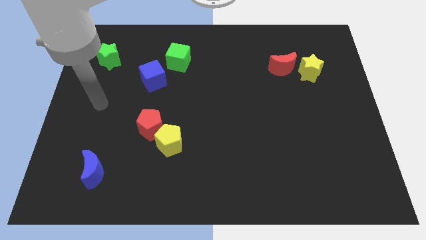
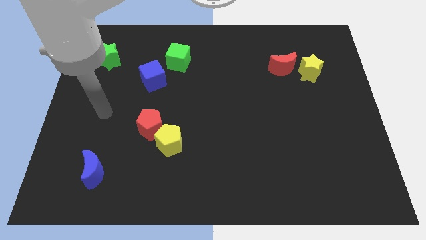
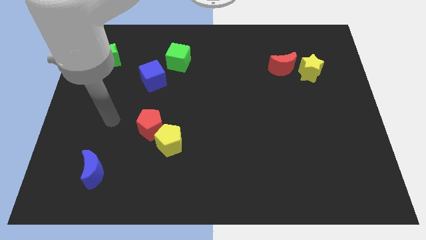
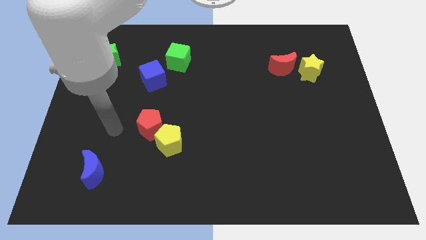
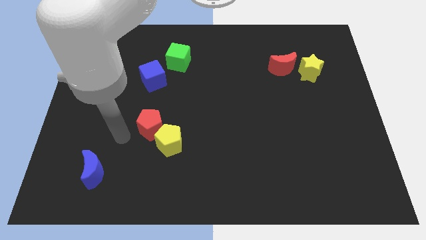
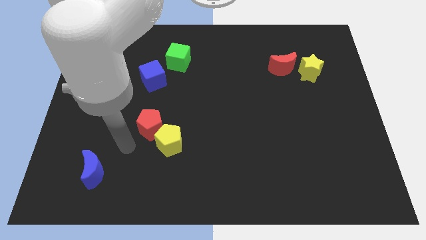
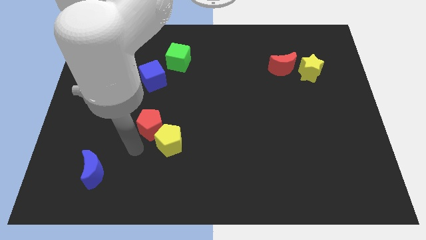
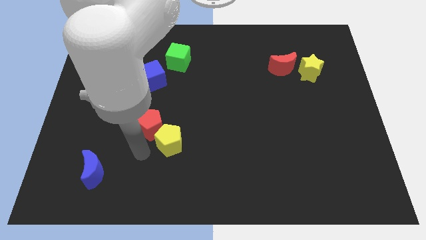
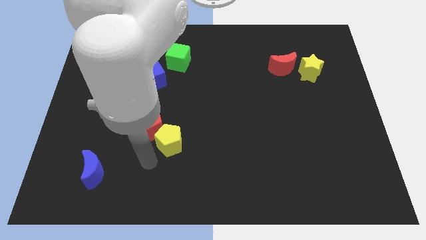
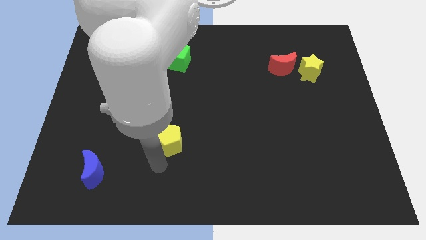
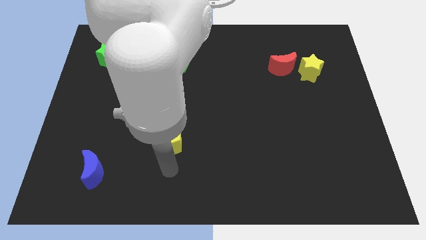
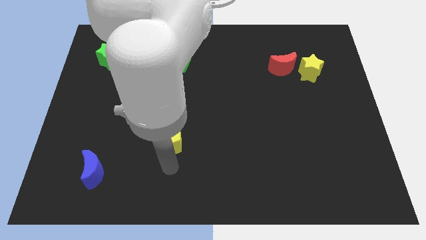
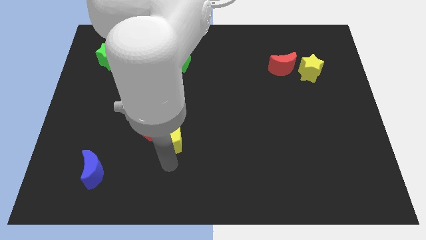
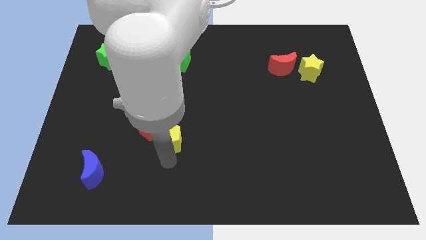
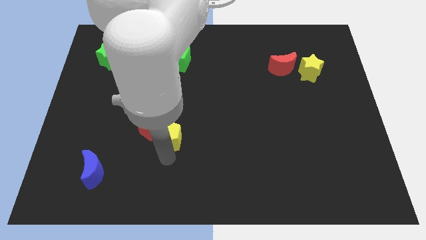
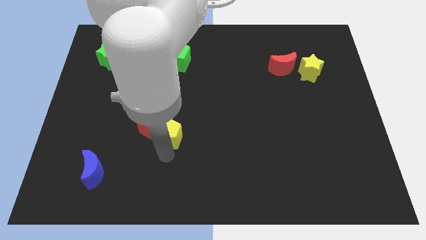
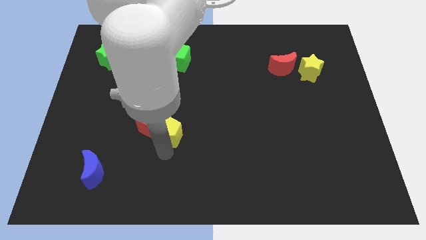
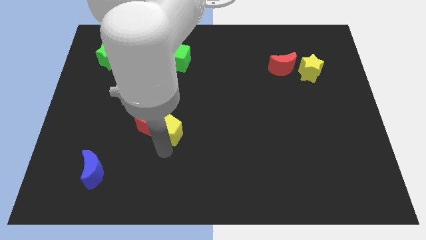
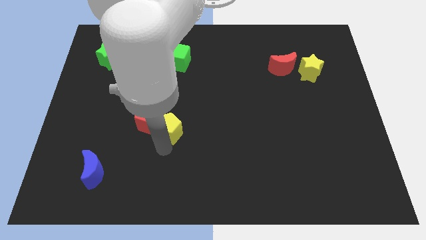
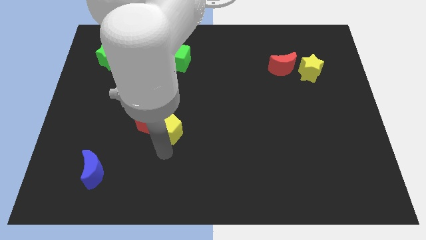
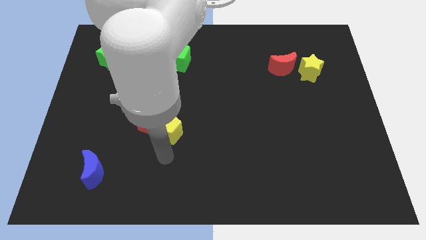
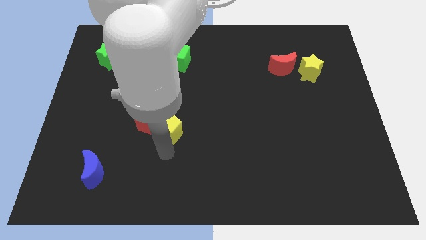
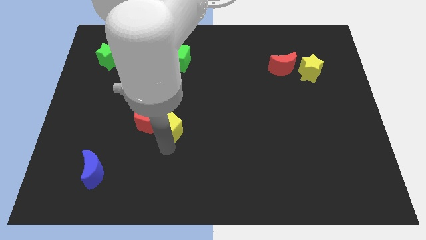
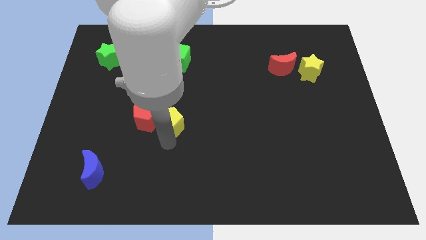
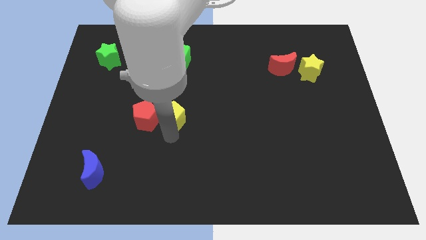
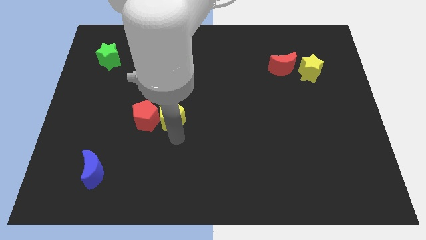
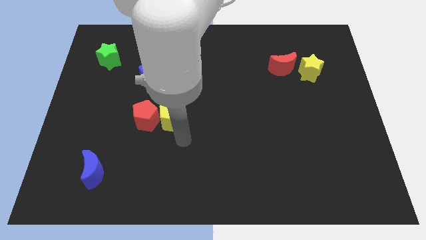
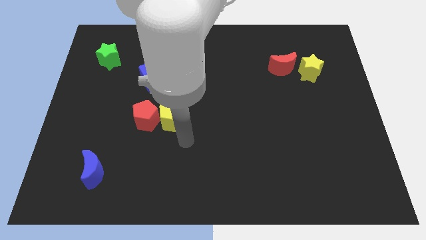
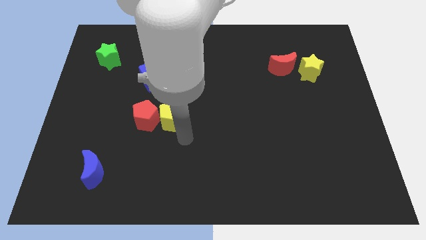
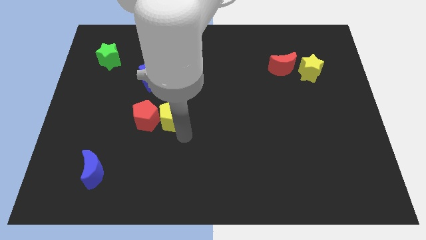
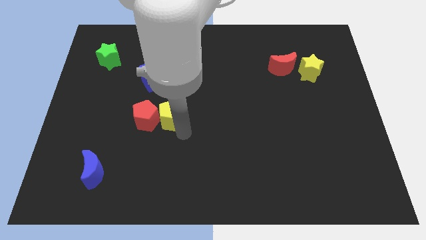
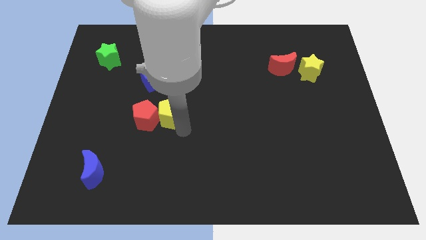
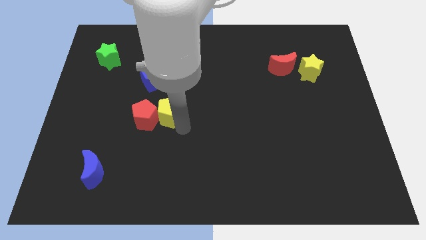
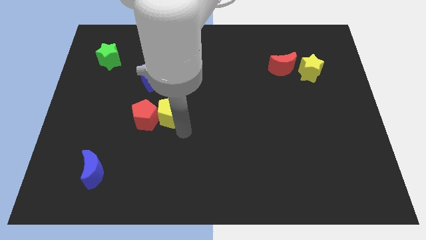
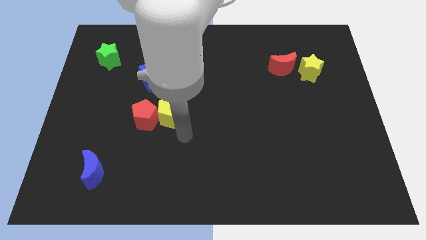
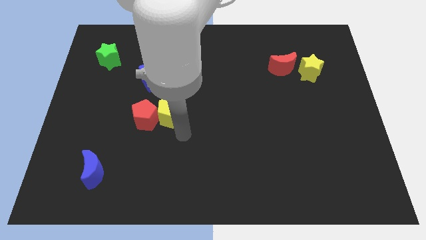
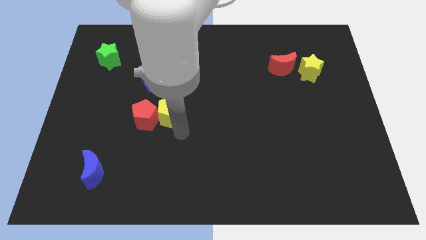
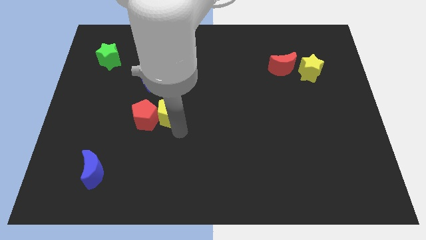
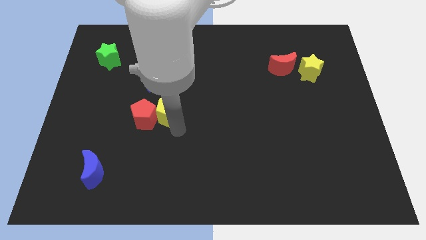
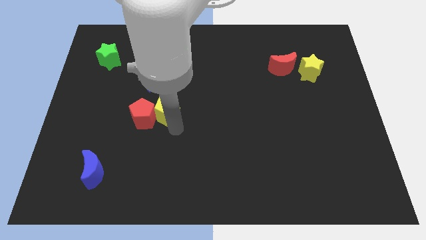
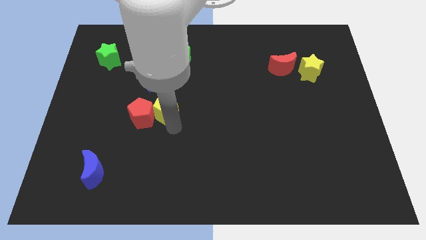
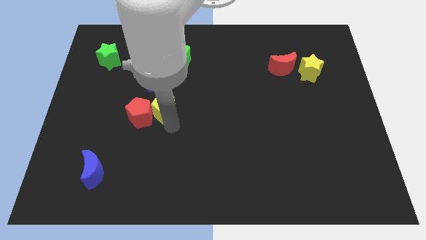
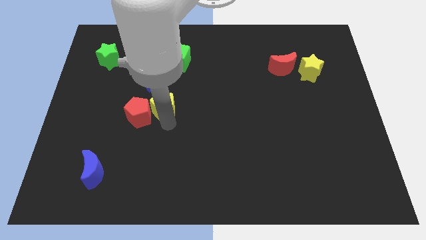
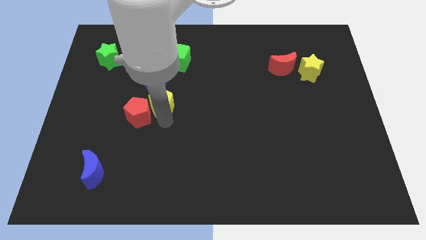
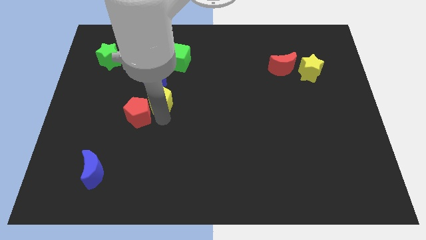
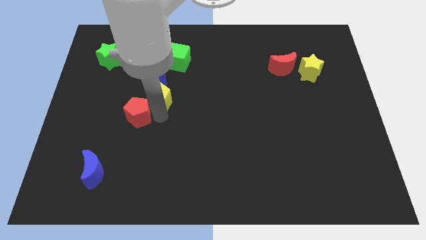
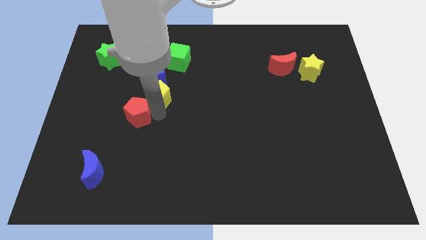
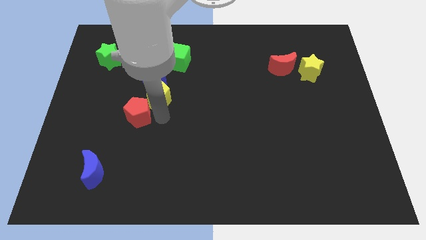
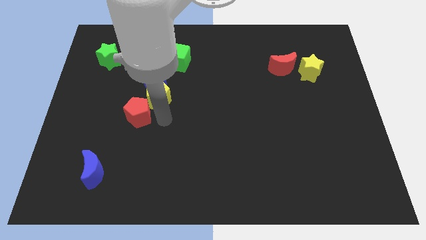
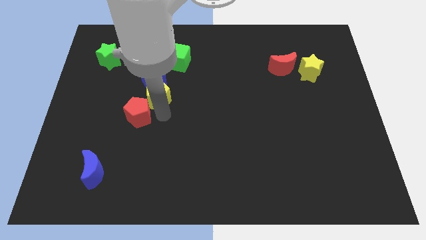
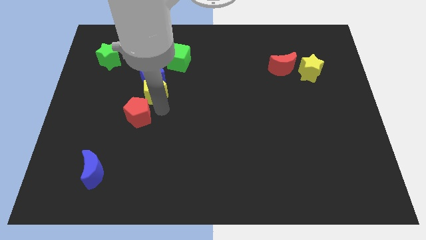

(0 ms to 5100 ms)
move the yellow pentagon close to the blue cube

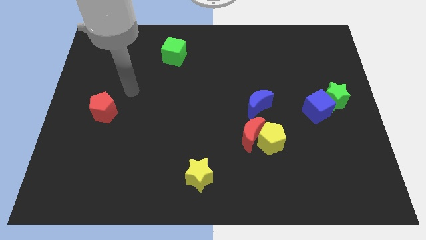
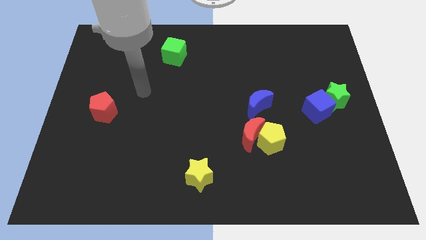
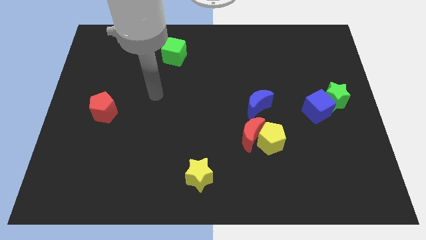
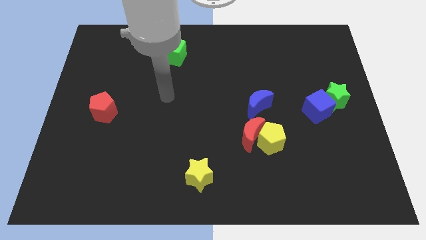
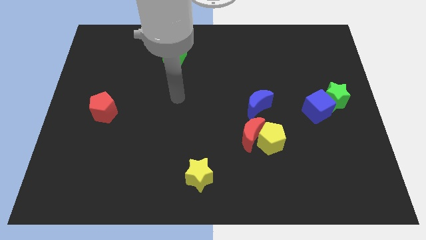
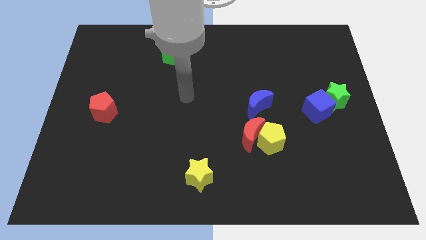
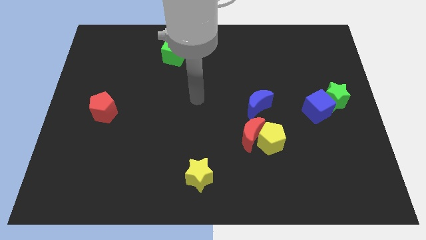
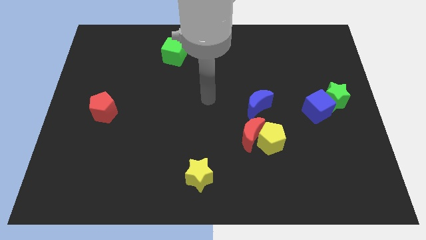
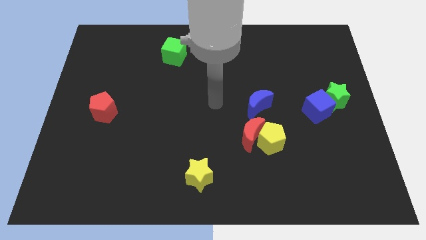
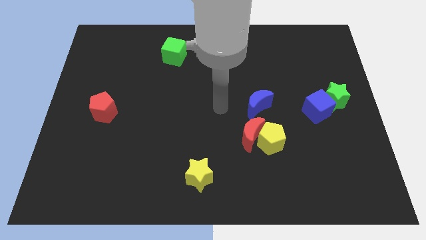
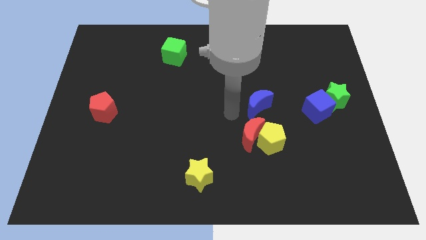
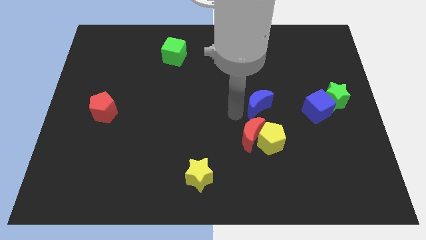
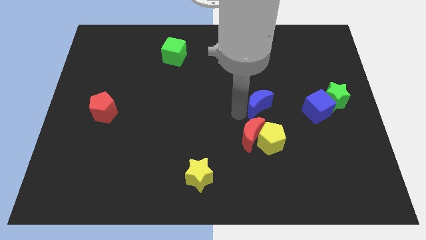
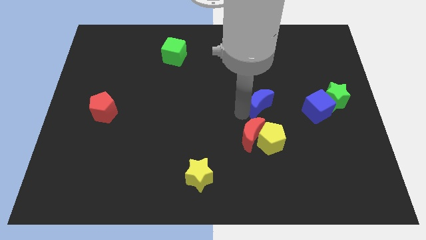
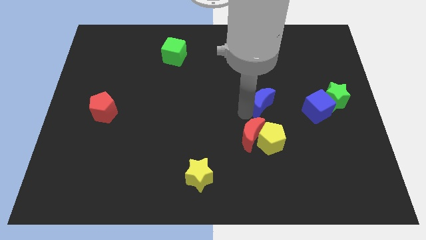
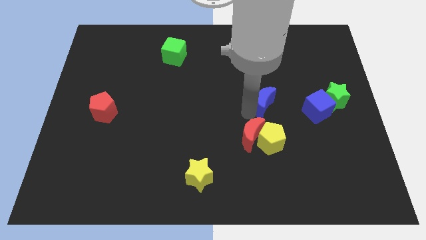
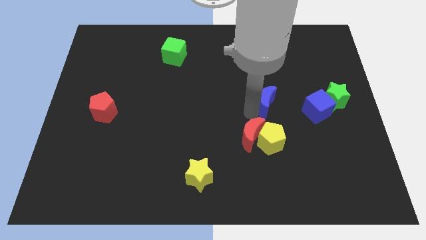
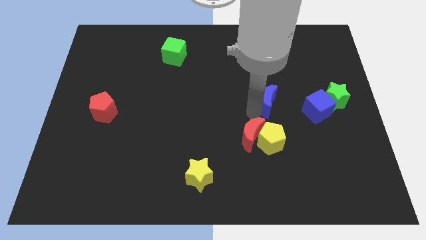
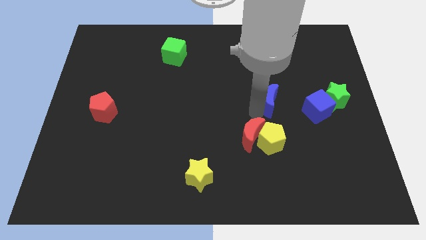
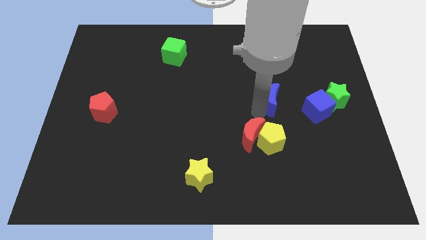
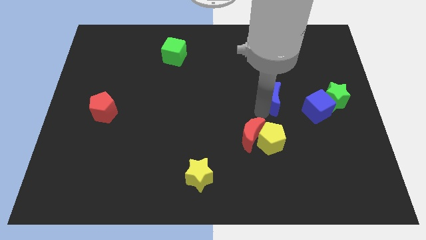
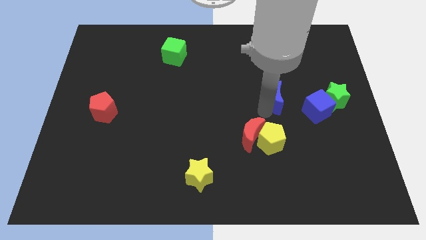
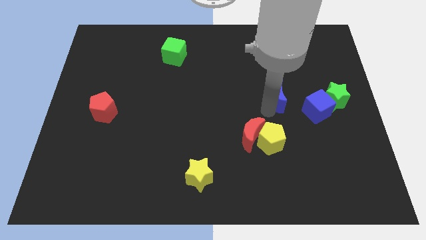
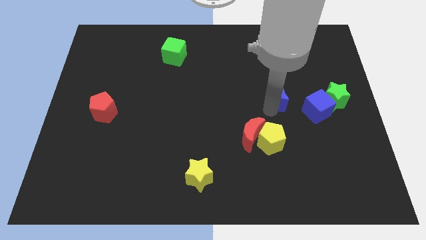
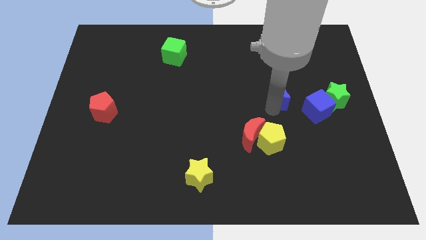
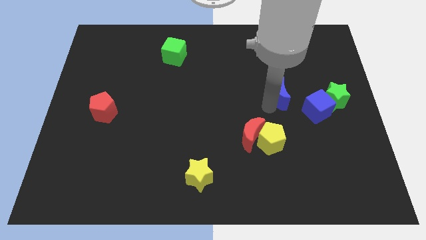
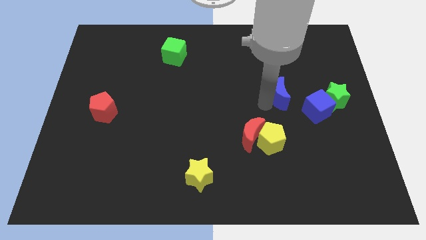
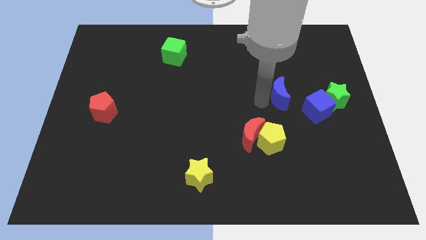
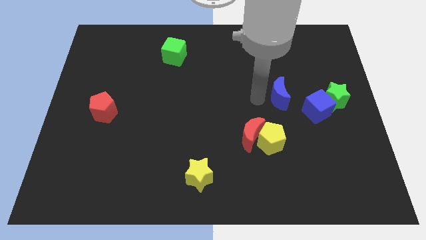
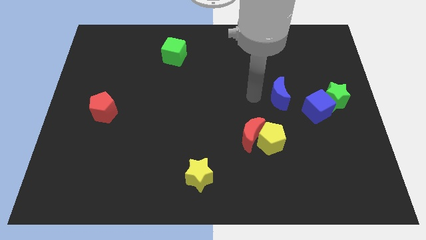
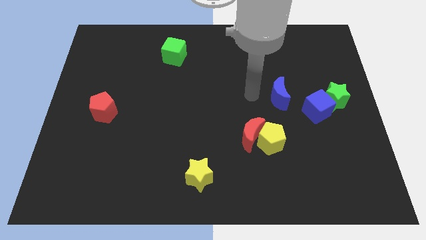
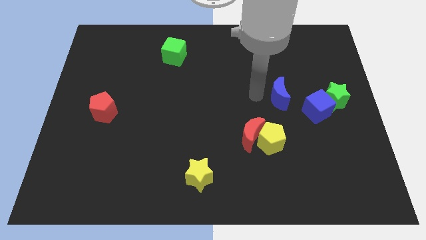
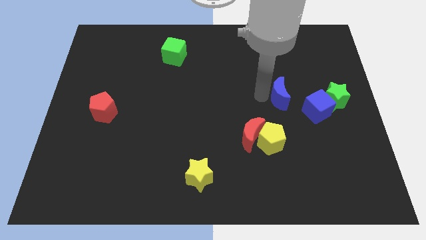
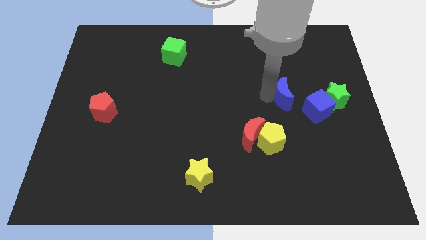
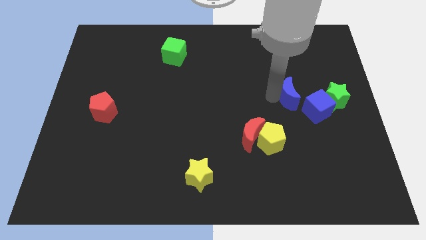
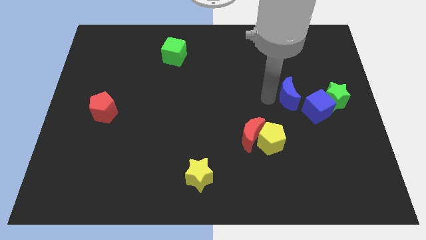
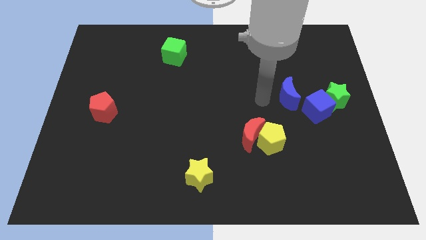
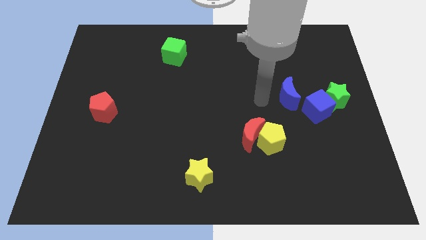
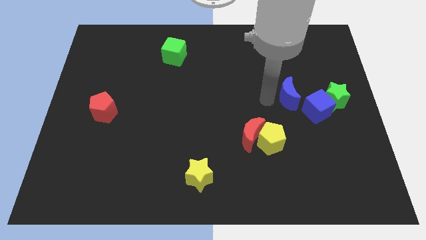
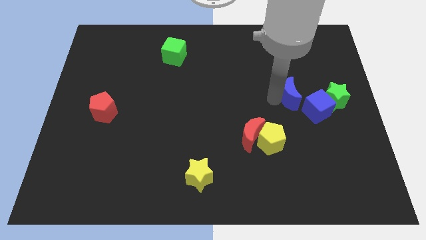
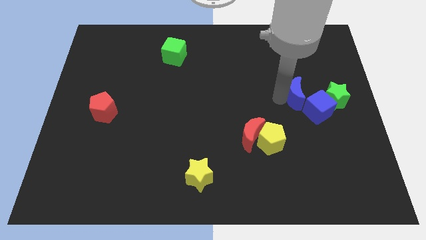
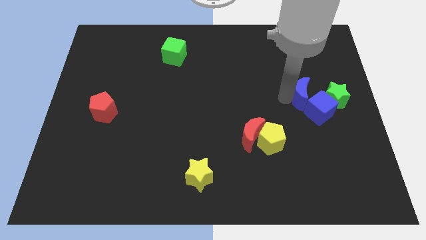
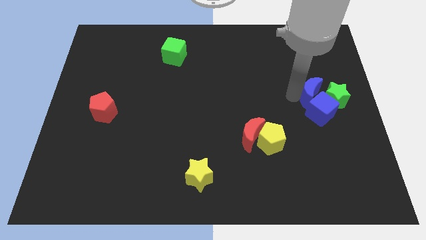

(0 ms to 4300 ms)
put the blue moon towards the green star
